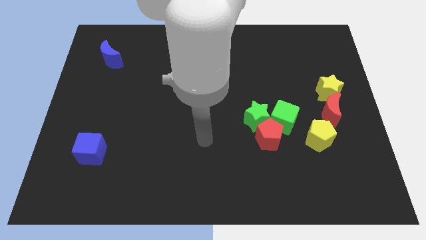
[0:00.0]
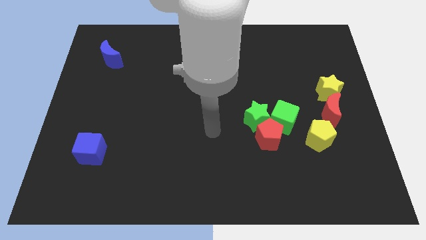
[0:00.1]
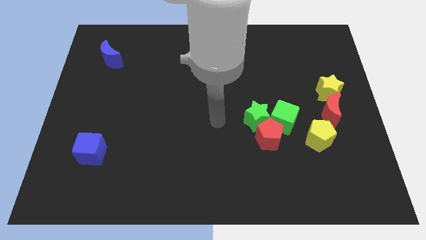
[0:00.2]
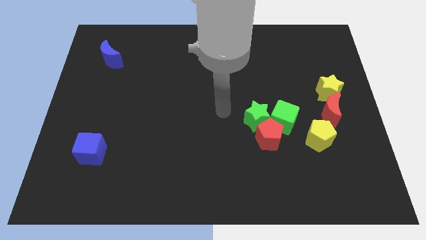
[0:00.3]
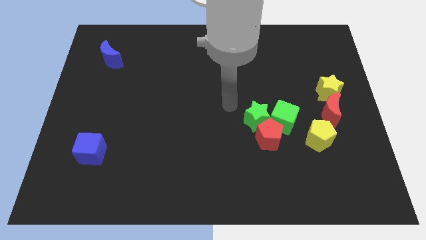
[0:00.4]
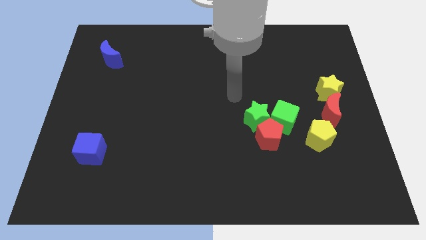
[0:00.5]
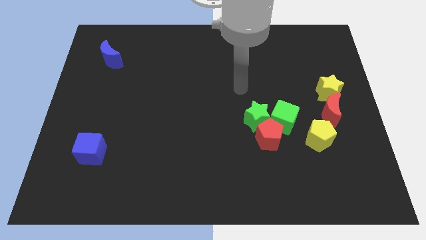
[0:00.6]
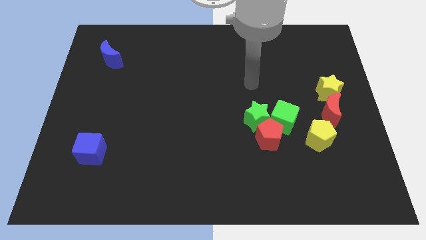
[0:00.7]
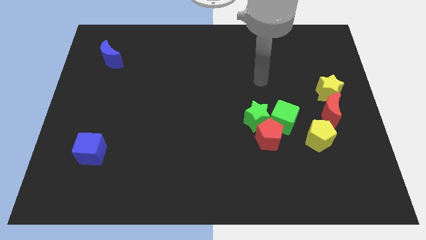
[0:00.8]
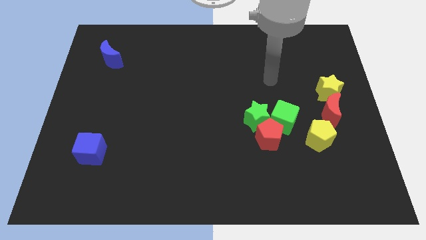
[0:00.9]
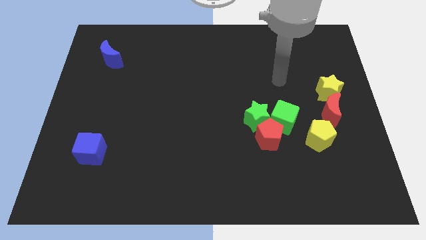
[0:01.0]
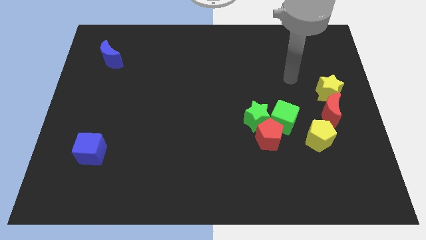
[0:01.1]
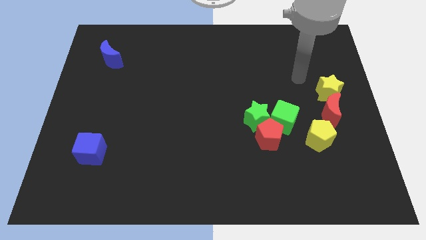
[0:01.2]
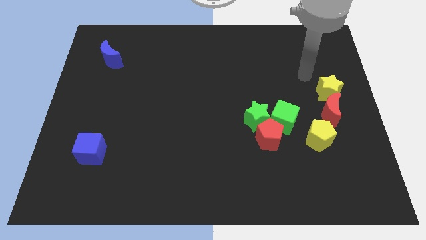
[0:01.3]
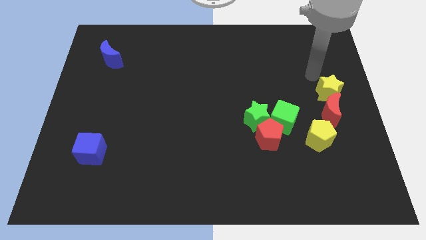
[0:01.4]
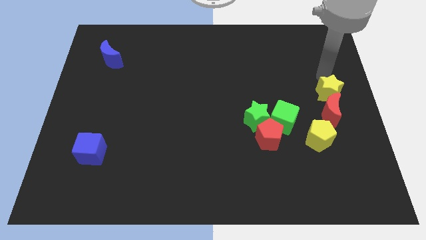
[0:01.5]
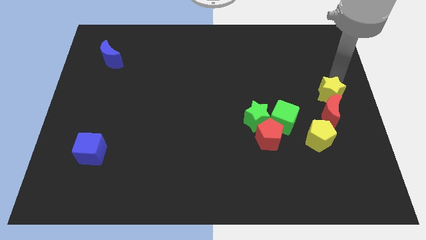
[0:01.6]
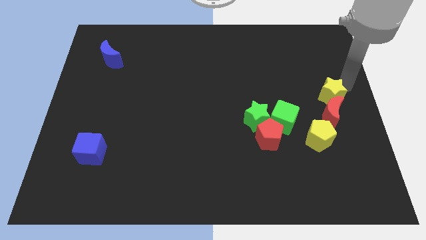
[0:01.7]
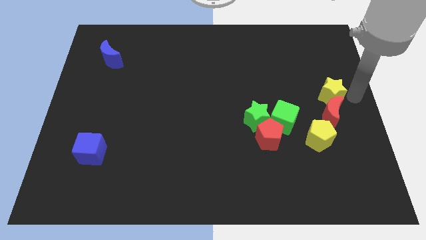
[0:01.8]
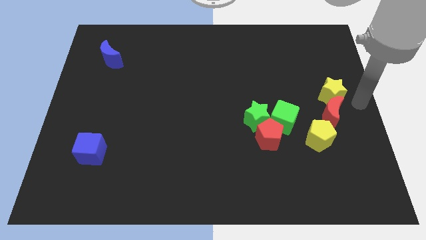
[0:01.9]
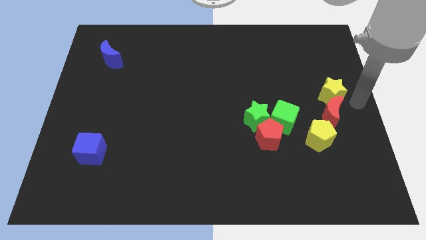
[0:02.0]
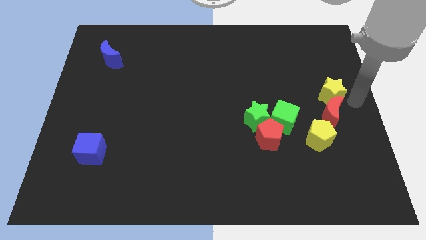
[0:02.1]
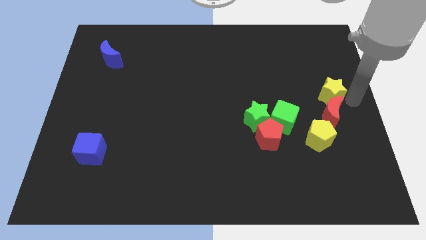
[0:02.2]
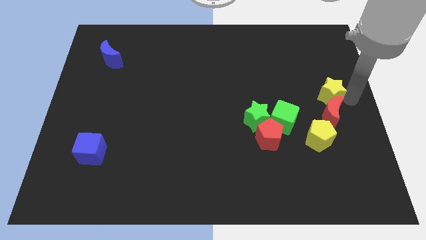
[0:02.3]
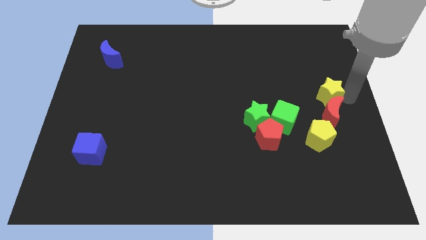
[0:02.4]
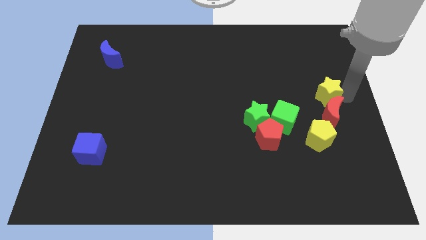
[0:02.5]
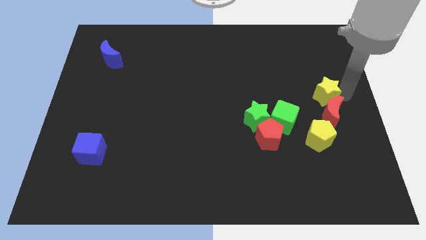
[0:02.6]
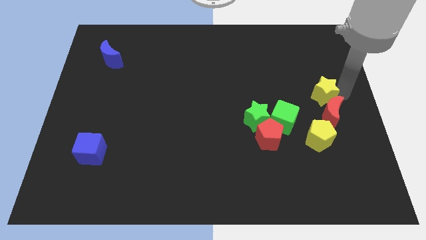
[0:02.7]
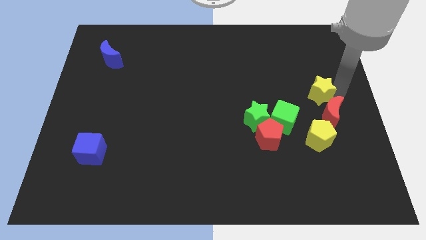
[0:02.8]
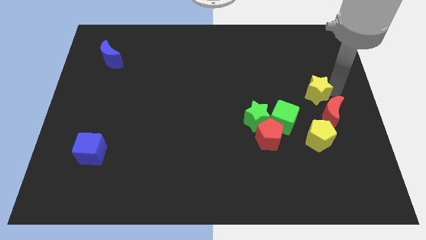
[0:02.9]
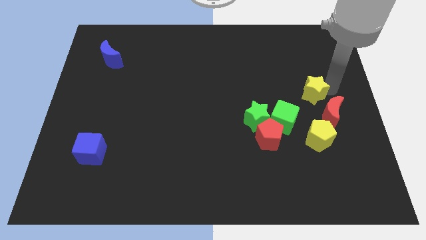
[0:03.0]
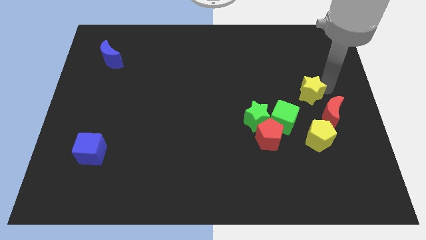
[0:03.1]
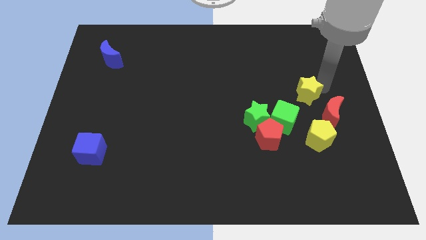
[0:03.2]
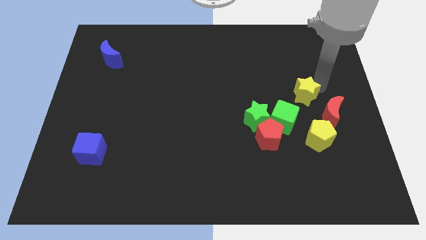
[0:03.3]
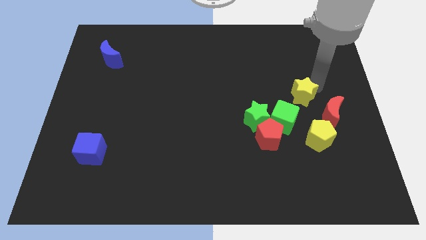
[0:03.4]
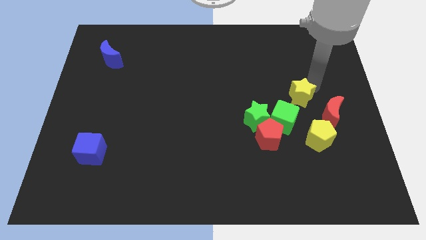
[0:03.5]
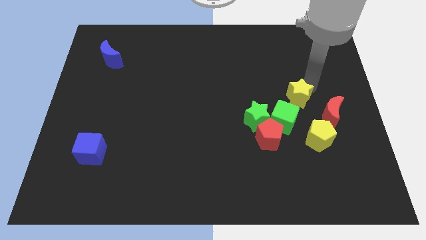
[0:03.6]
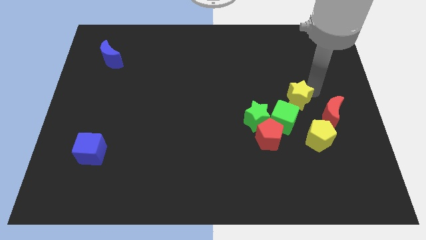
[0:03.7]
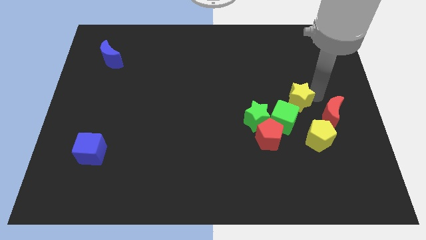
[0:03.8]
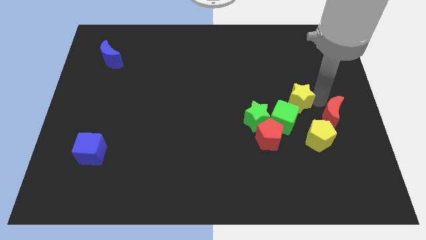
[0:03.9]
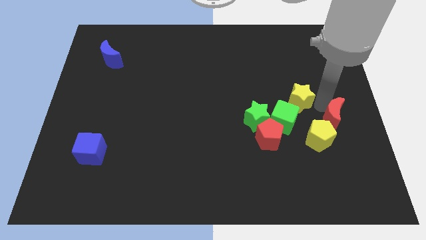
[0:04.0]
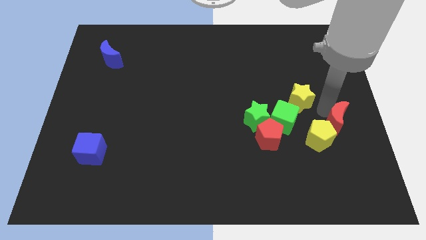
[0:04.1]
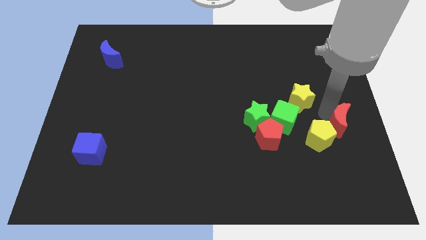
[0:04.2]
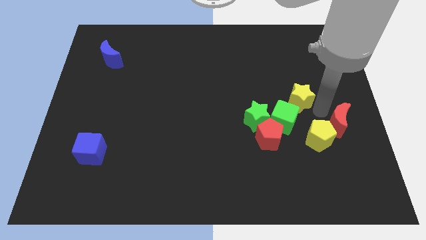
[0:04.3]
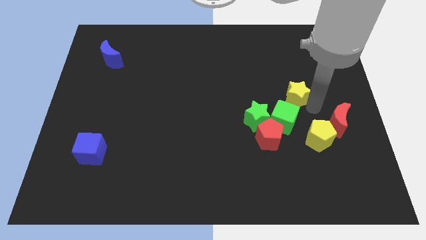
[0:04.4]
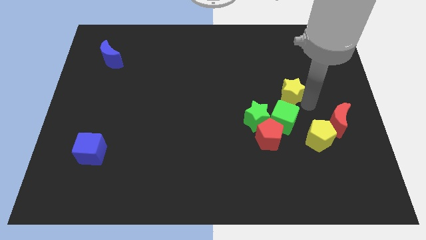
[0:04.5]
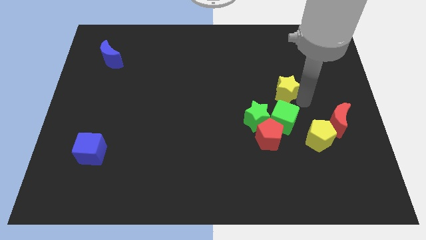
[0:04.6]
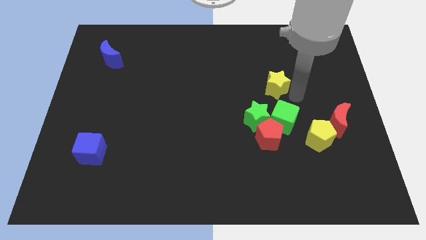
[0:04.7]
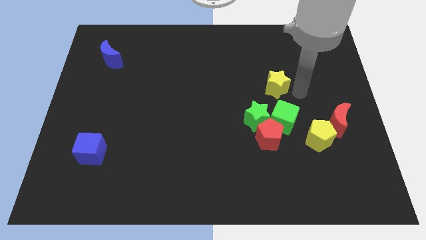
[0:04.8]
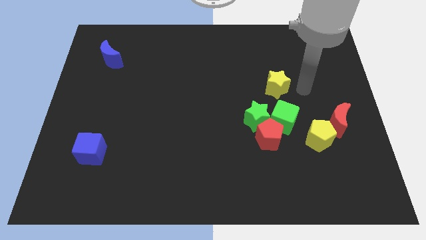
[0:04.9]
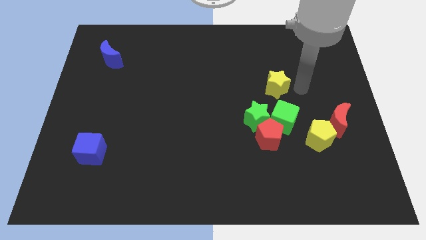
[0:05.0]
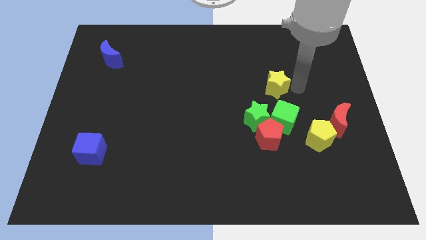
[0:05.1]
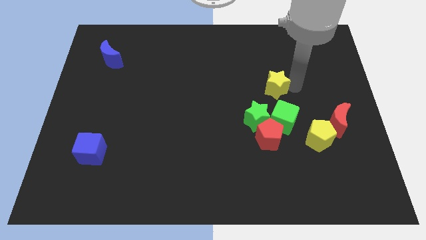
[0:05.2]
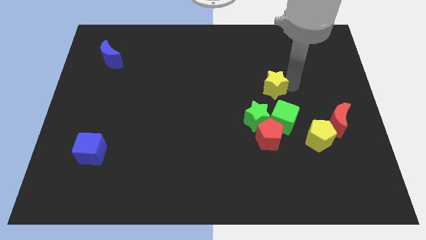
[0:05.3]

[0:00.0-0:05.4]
push the yellow star to the top of the green star
